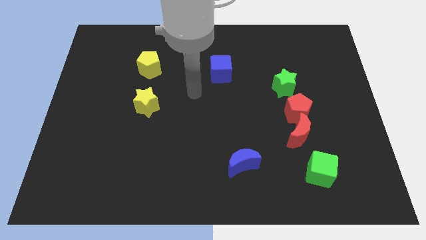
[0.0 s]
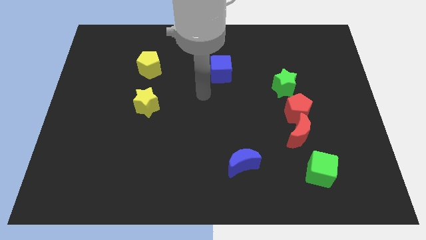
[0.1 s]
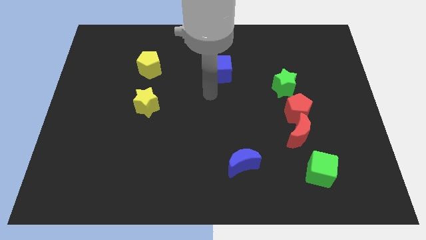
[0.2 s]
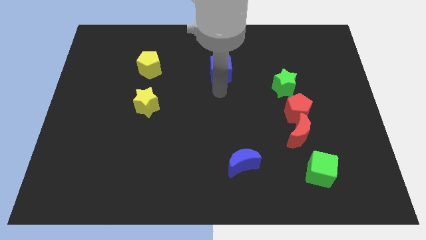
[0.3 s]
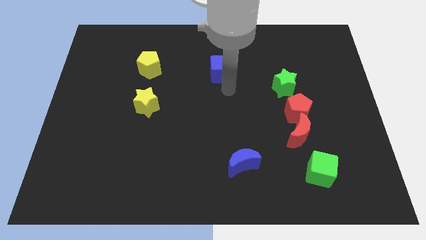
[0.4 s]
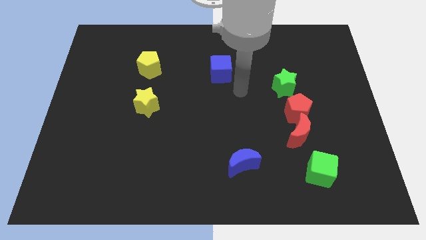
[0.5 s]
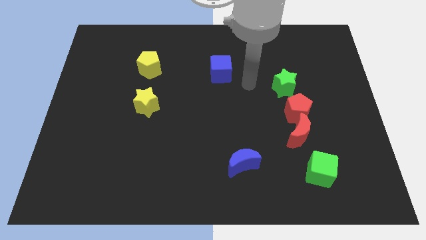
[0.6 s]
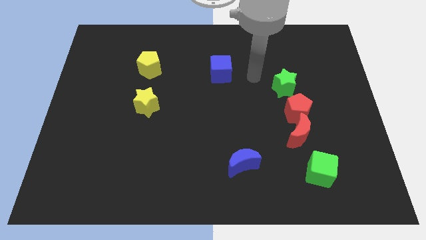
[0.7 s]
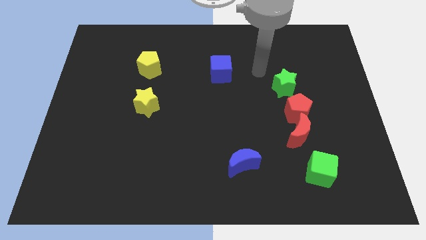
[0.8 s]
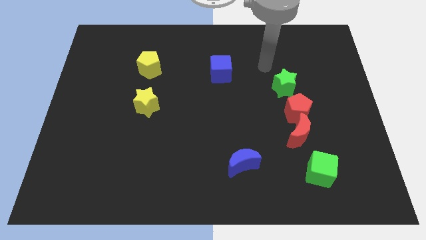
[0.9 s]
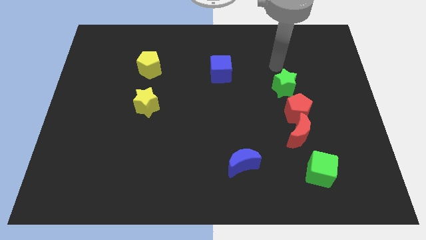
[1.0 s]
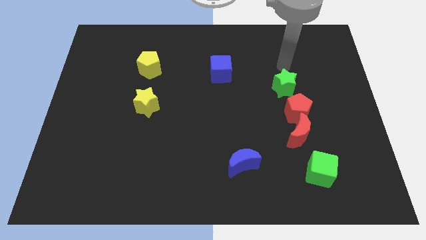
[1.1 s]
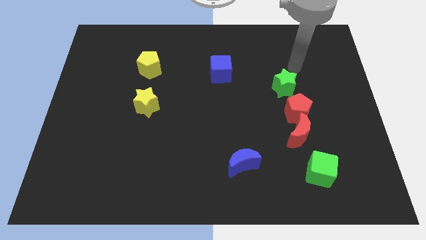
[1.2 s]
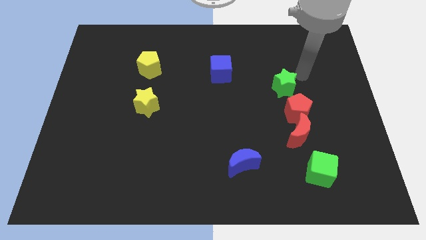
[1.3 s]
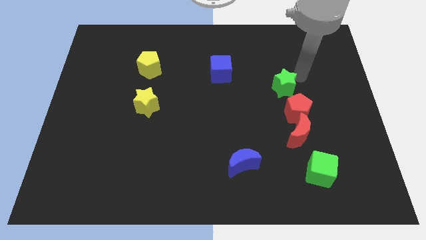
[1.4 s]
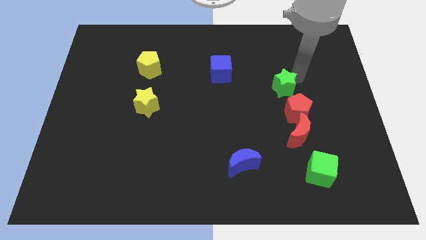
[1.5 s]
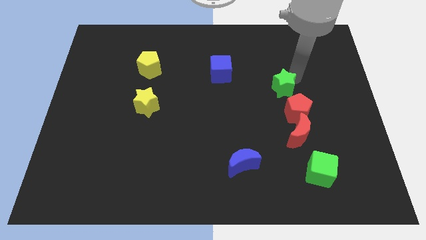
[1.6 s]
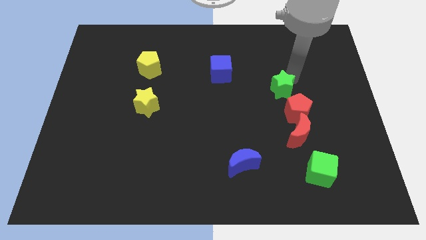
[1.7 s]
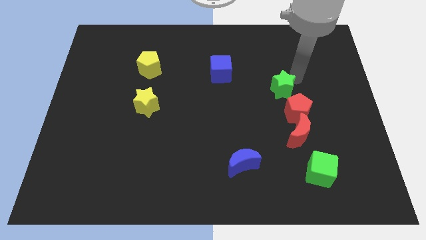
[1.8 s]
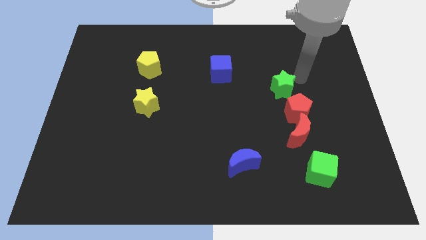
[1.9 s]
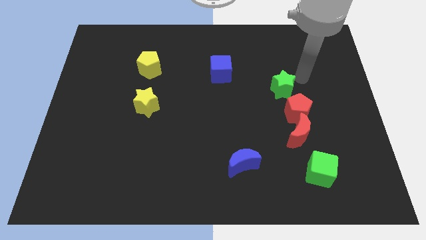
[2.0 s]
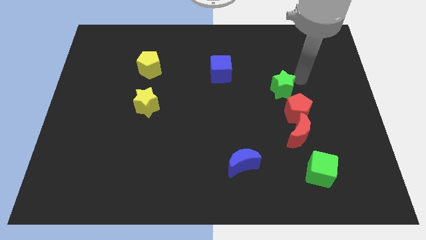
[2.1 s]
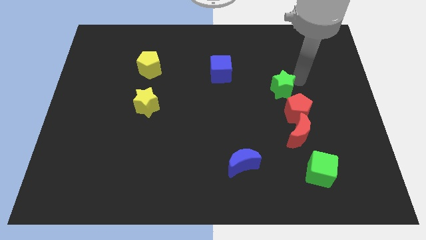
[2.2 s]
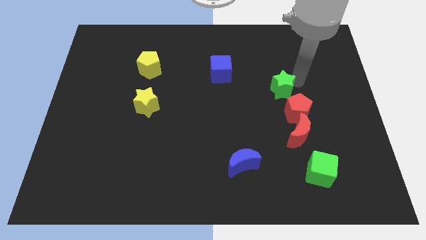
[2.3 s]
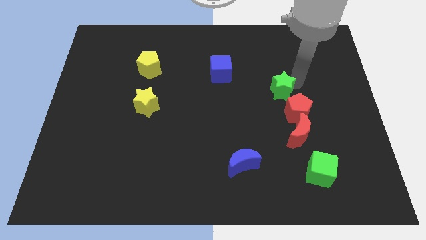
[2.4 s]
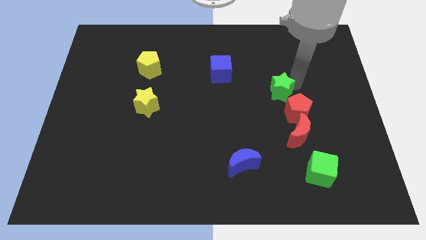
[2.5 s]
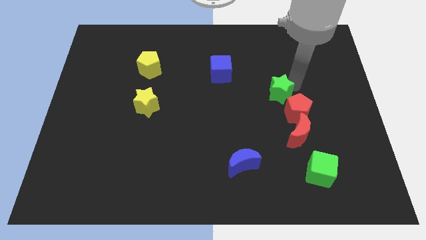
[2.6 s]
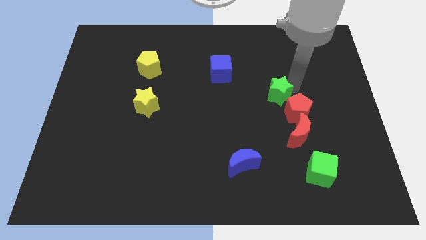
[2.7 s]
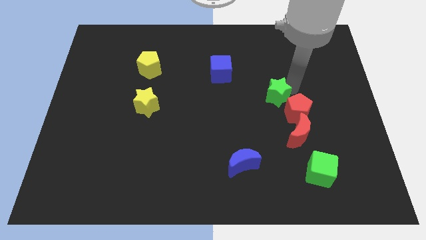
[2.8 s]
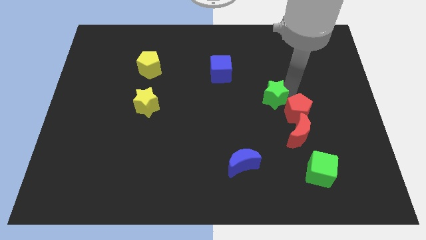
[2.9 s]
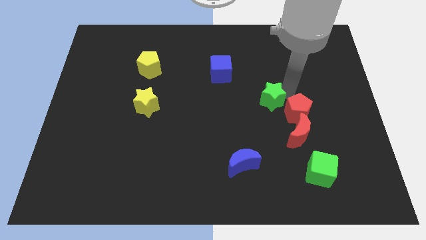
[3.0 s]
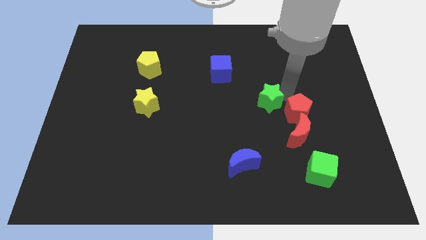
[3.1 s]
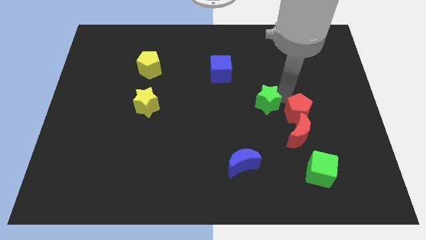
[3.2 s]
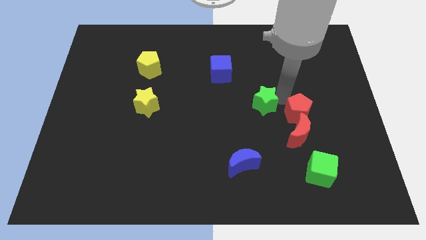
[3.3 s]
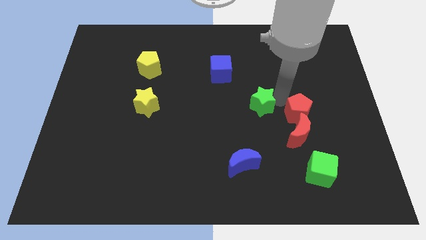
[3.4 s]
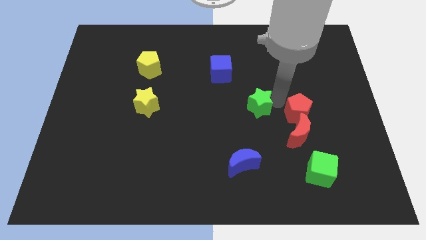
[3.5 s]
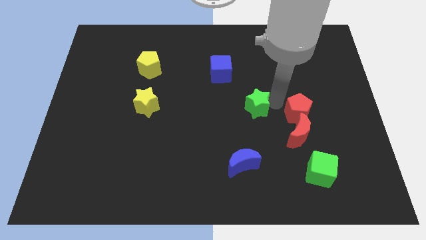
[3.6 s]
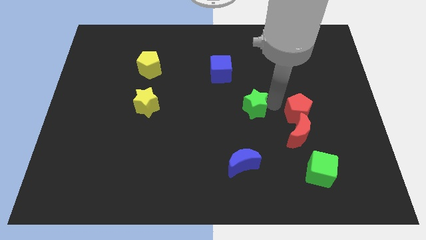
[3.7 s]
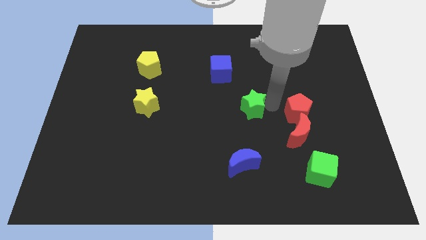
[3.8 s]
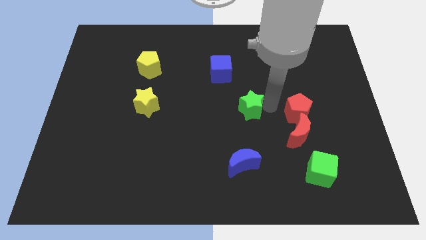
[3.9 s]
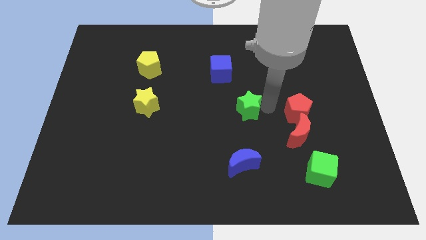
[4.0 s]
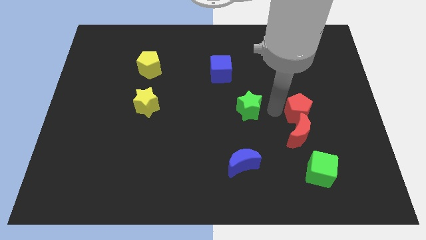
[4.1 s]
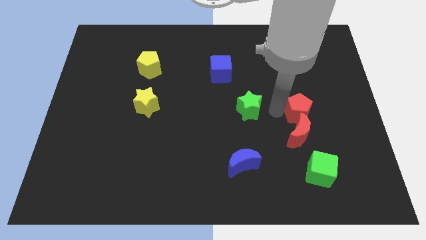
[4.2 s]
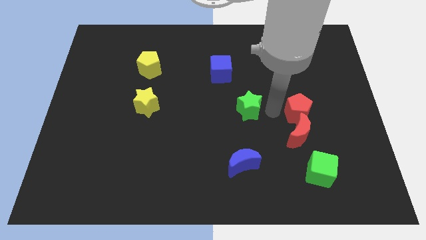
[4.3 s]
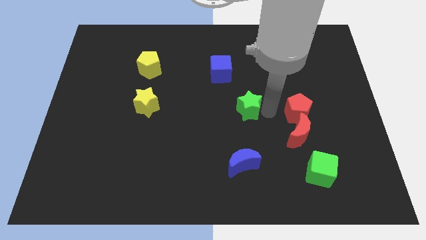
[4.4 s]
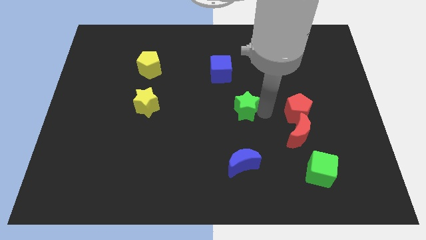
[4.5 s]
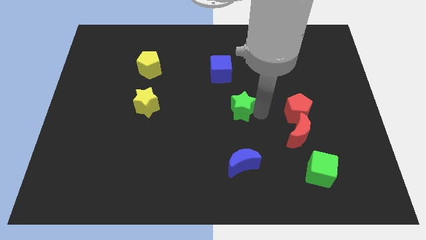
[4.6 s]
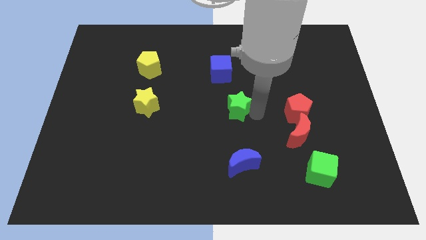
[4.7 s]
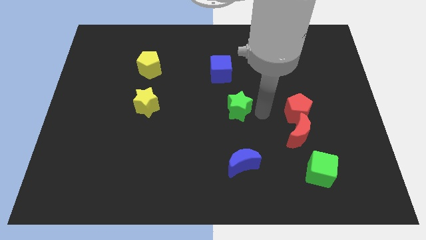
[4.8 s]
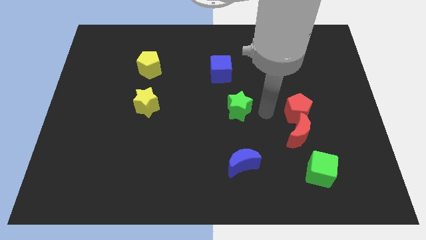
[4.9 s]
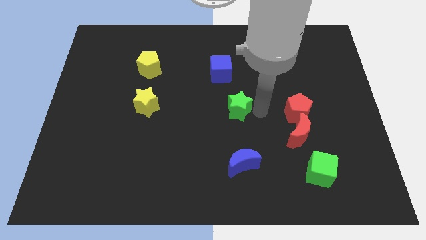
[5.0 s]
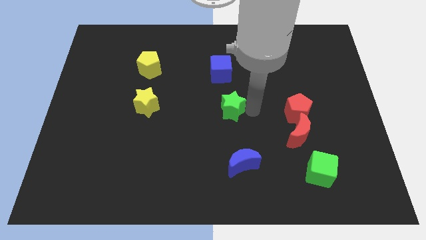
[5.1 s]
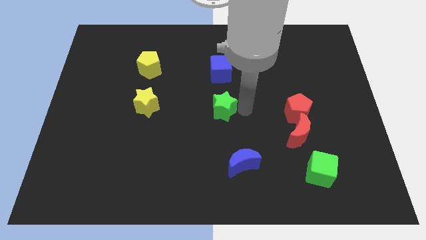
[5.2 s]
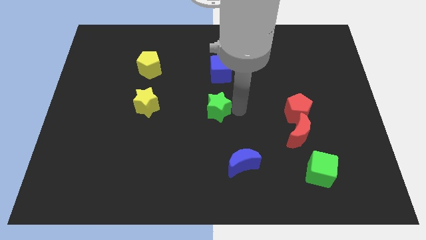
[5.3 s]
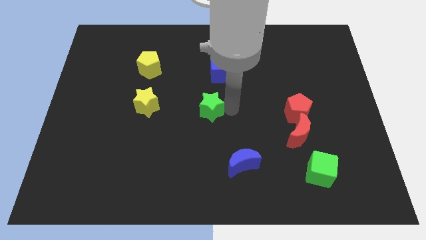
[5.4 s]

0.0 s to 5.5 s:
push the green star to the right side of the yellow star

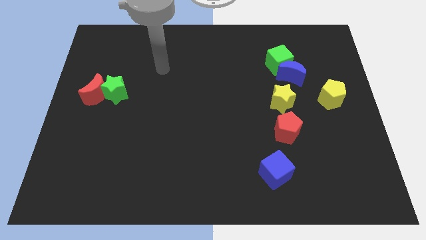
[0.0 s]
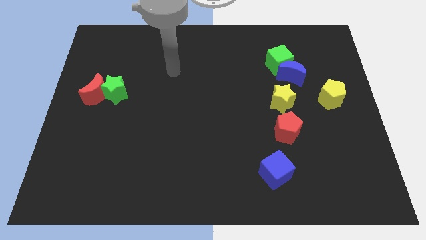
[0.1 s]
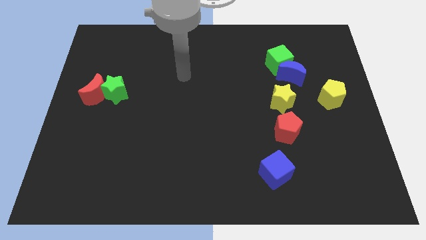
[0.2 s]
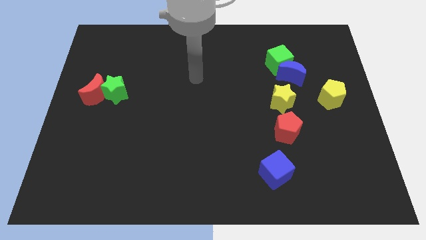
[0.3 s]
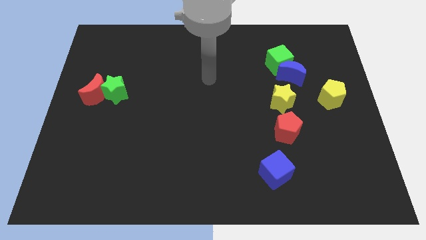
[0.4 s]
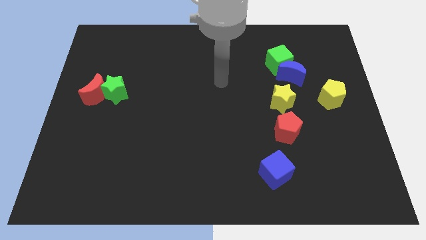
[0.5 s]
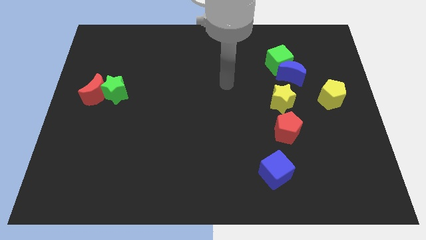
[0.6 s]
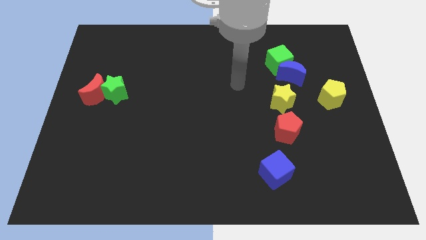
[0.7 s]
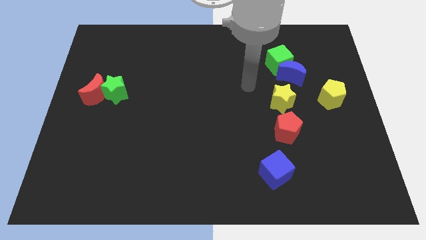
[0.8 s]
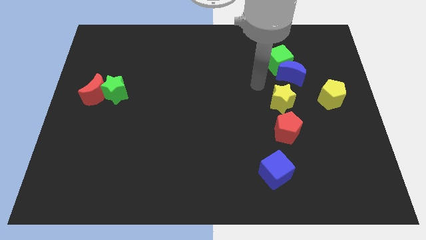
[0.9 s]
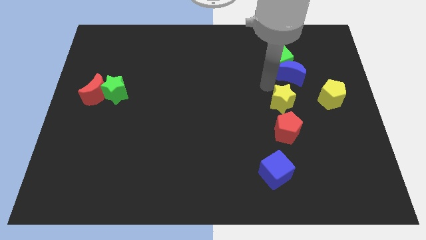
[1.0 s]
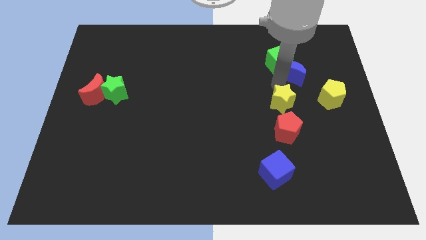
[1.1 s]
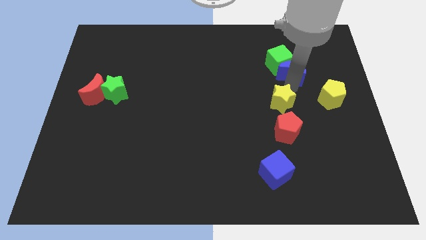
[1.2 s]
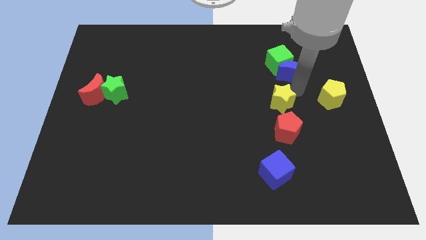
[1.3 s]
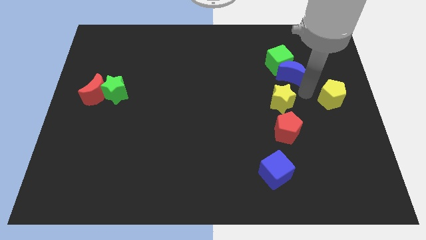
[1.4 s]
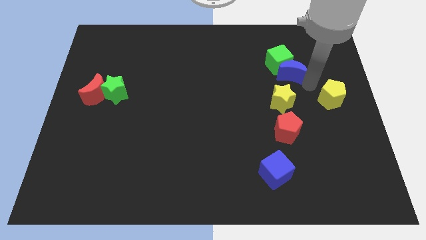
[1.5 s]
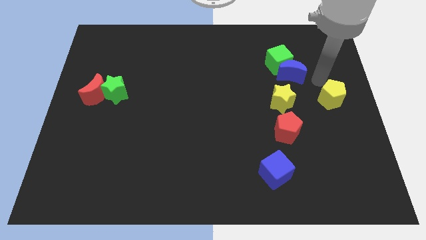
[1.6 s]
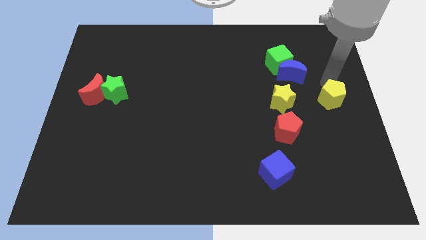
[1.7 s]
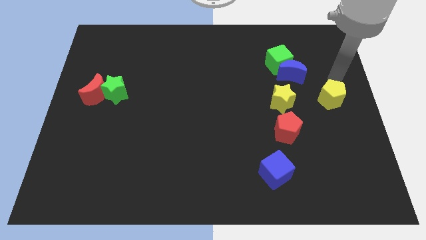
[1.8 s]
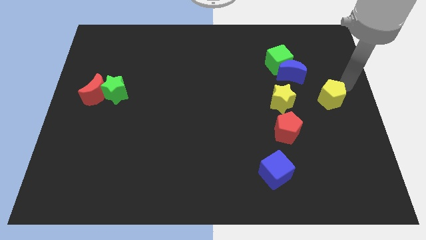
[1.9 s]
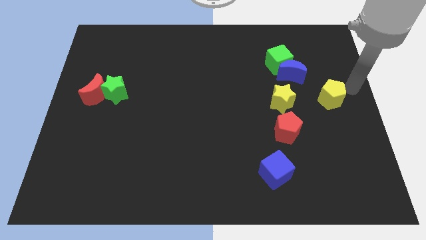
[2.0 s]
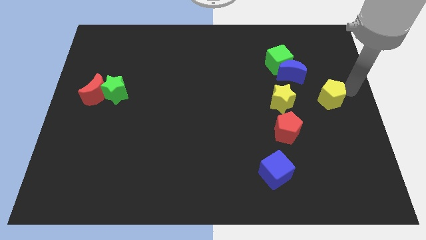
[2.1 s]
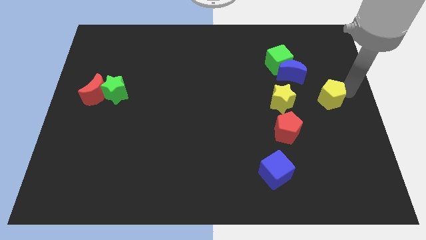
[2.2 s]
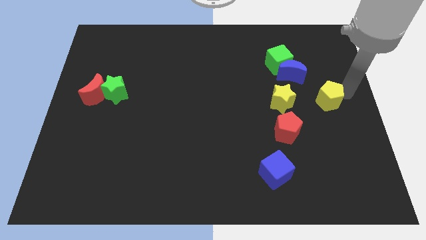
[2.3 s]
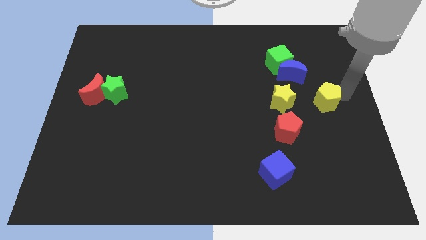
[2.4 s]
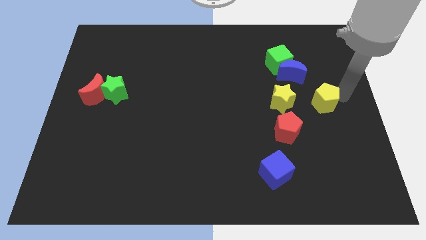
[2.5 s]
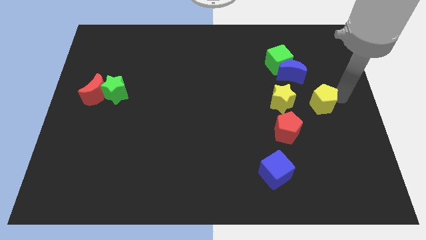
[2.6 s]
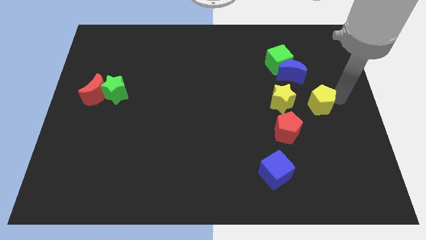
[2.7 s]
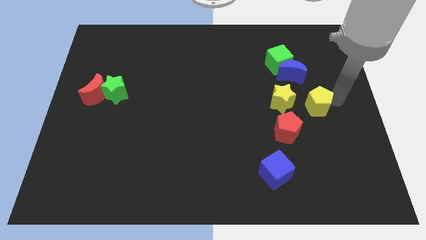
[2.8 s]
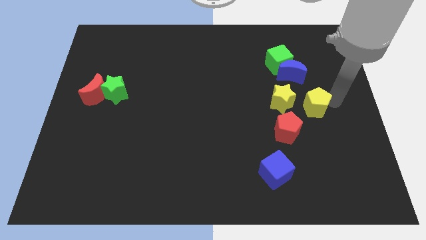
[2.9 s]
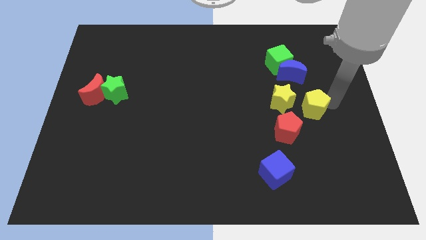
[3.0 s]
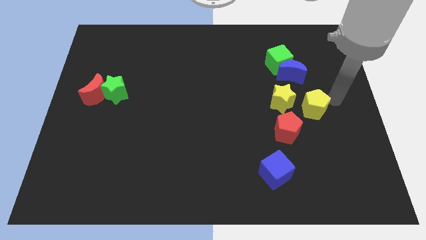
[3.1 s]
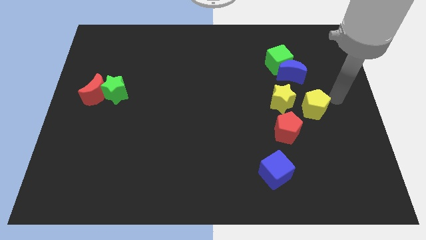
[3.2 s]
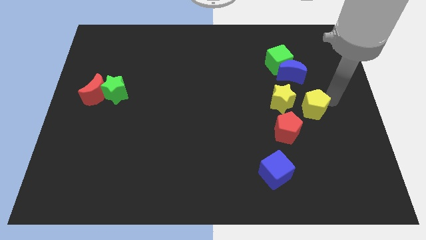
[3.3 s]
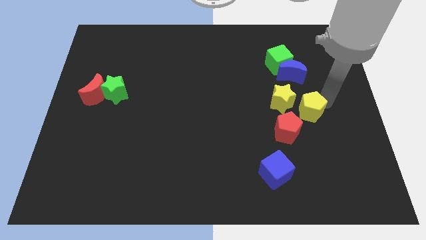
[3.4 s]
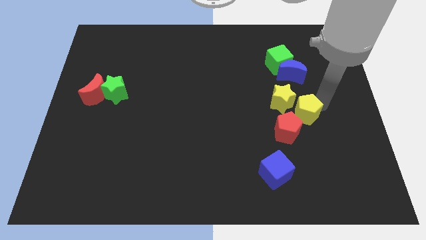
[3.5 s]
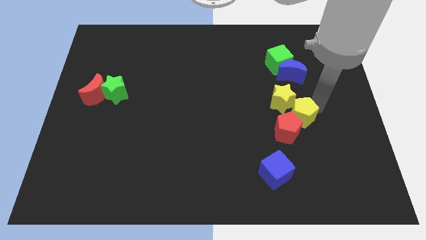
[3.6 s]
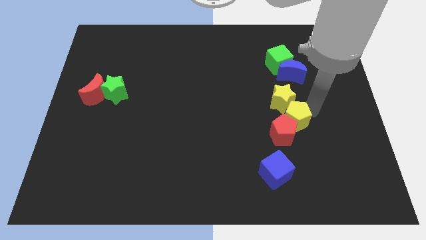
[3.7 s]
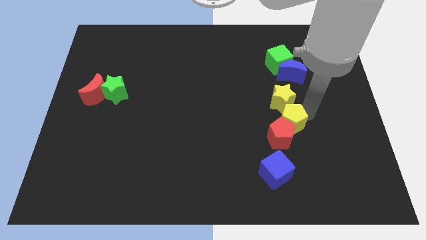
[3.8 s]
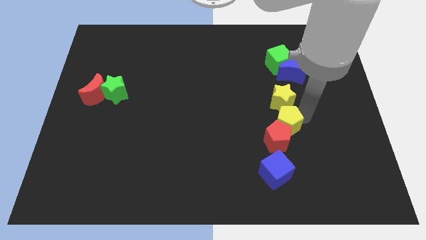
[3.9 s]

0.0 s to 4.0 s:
move the yellow pentagon above the blue cube
